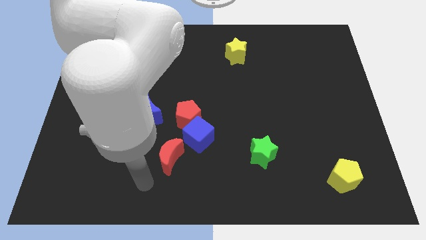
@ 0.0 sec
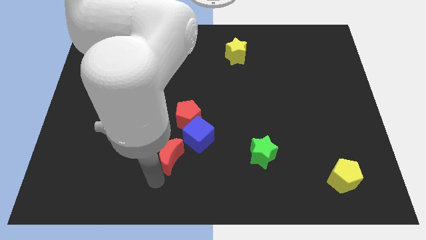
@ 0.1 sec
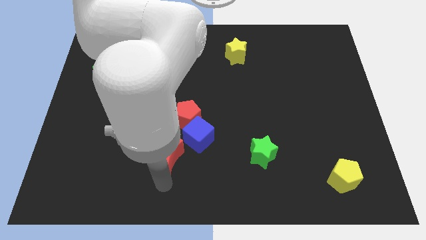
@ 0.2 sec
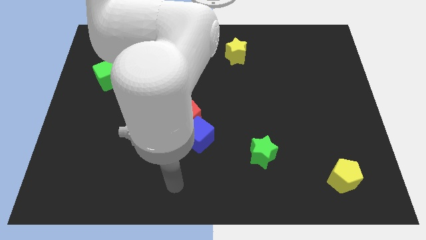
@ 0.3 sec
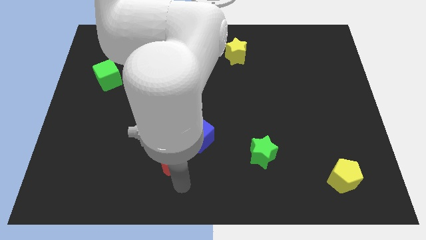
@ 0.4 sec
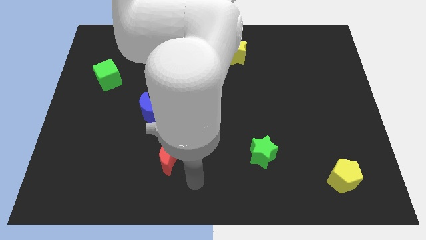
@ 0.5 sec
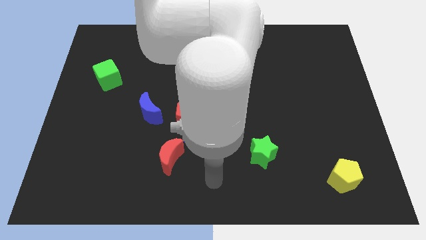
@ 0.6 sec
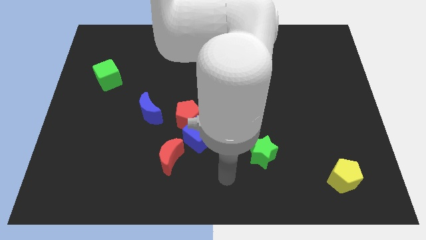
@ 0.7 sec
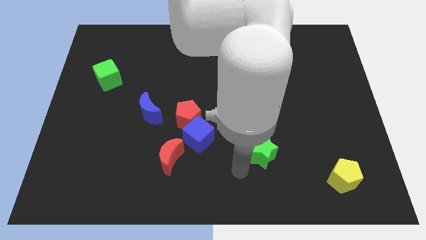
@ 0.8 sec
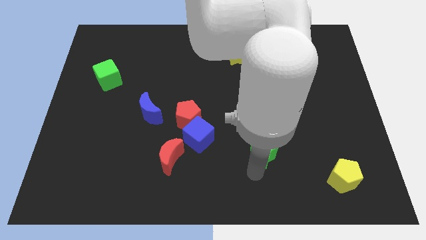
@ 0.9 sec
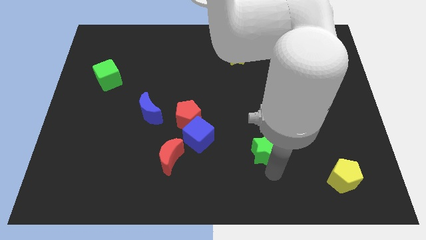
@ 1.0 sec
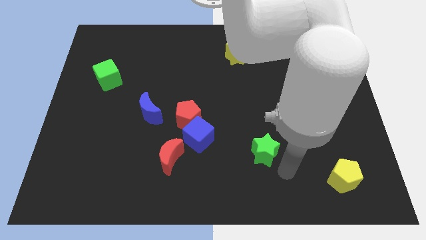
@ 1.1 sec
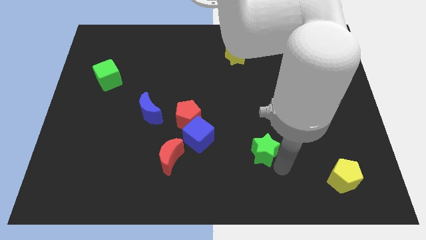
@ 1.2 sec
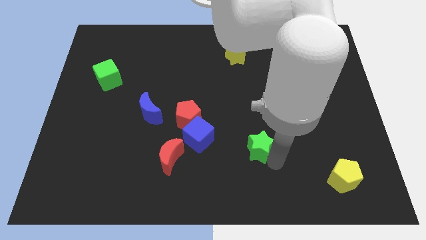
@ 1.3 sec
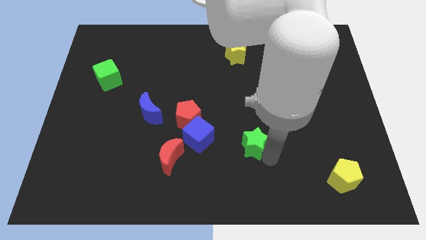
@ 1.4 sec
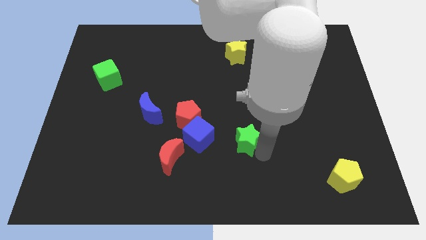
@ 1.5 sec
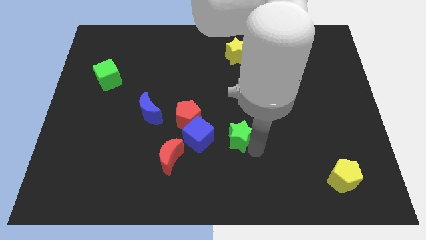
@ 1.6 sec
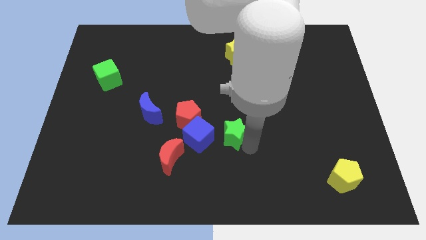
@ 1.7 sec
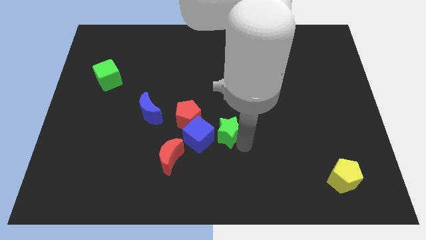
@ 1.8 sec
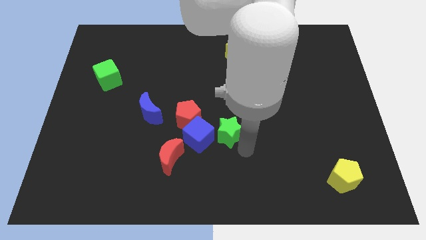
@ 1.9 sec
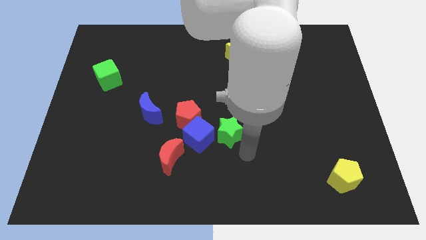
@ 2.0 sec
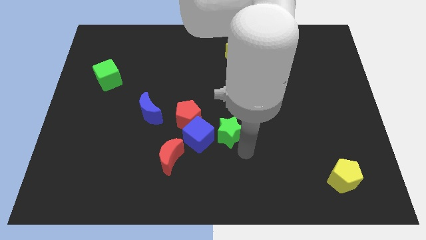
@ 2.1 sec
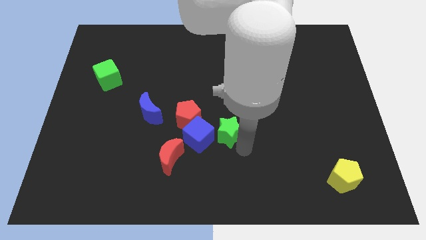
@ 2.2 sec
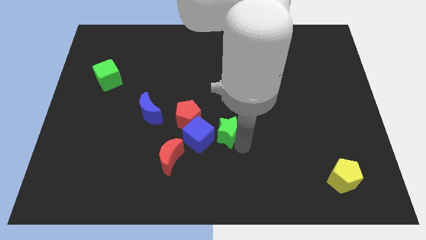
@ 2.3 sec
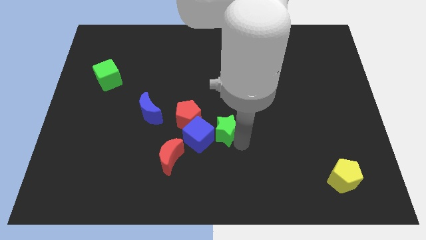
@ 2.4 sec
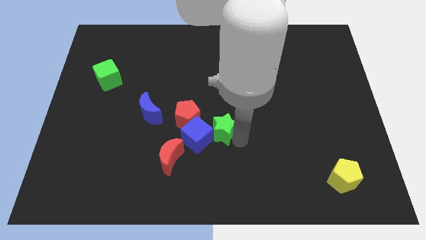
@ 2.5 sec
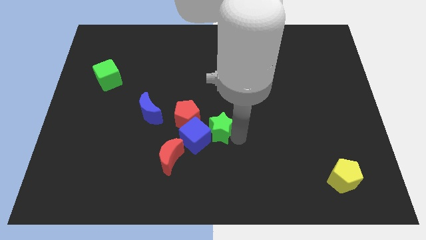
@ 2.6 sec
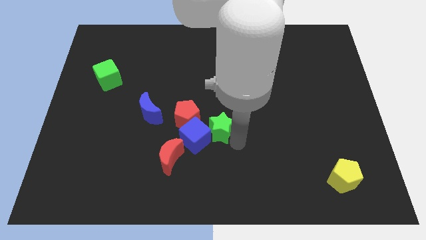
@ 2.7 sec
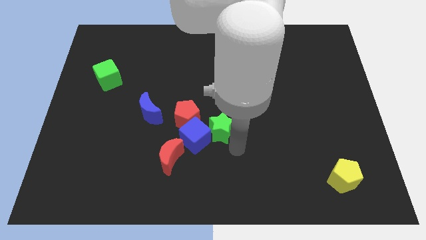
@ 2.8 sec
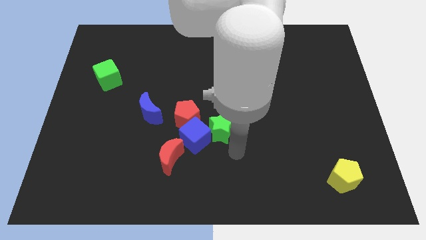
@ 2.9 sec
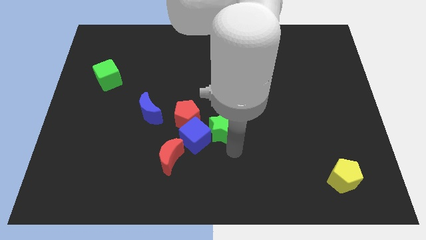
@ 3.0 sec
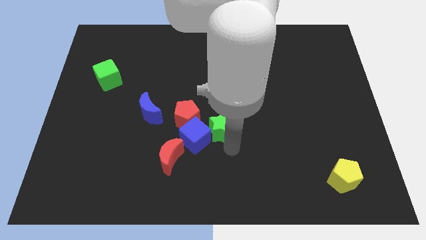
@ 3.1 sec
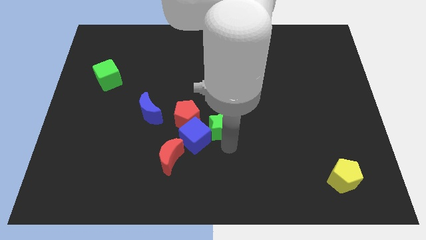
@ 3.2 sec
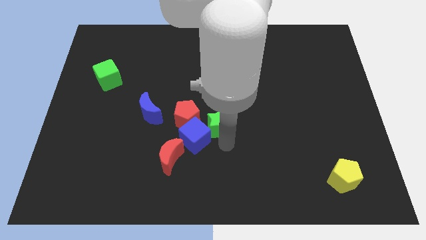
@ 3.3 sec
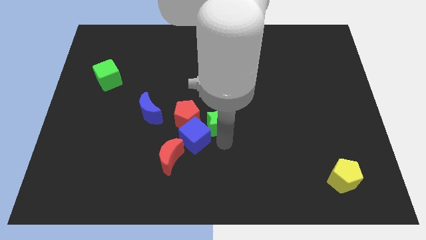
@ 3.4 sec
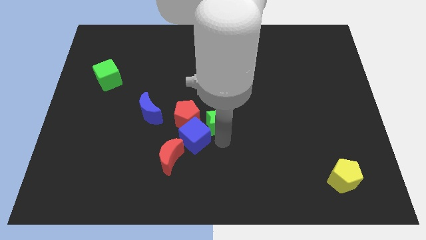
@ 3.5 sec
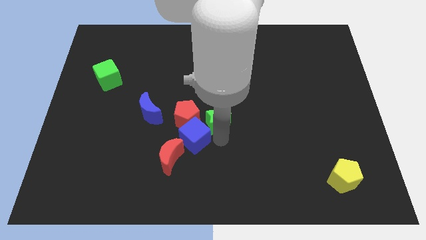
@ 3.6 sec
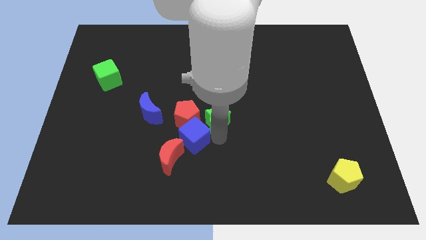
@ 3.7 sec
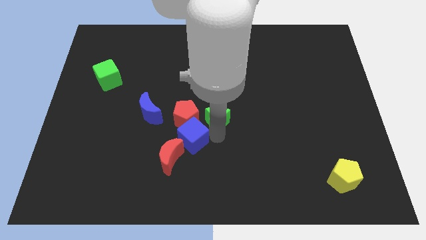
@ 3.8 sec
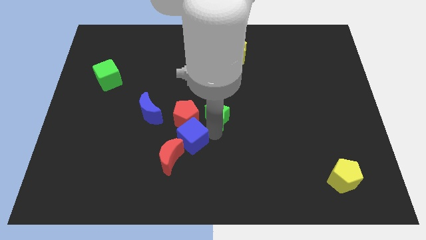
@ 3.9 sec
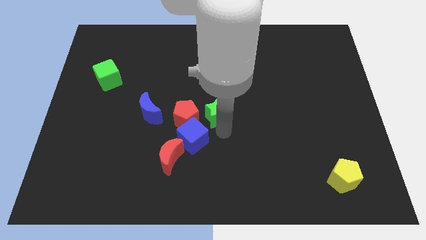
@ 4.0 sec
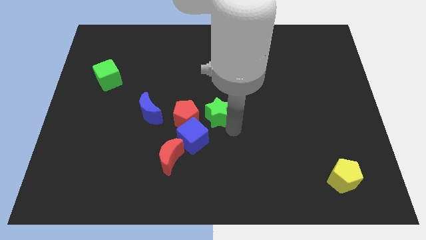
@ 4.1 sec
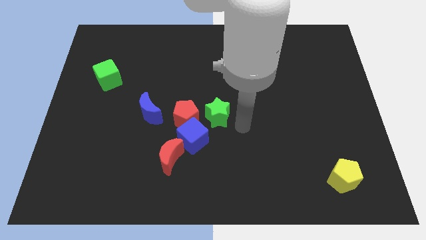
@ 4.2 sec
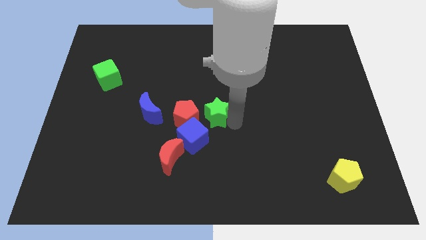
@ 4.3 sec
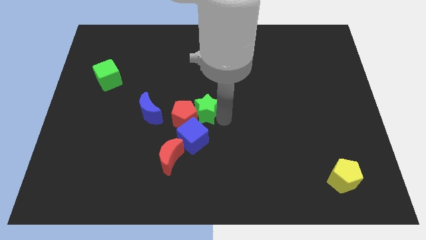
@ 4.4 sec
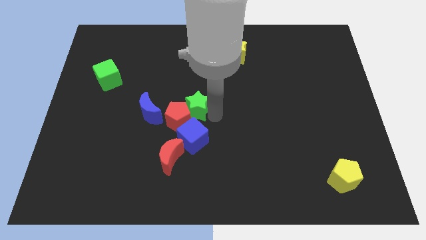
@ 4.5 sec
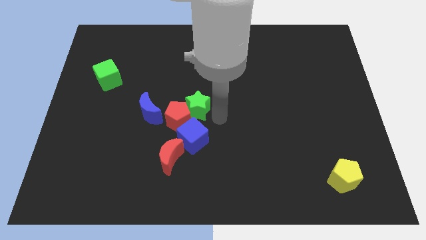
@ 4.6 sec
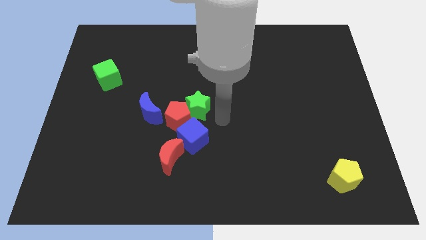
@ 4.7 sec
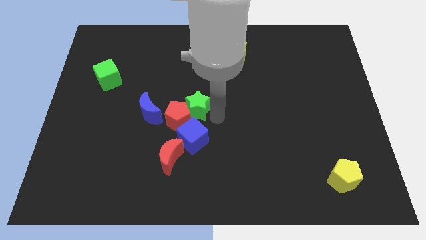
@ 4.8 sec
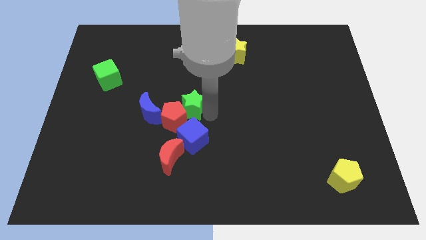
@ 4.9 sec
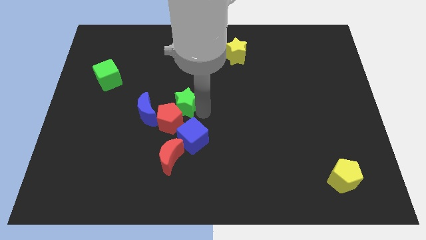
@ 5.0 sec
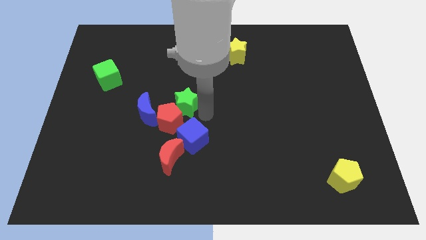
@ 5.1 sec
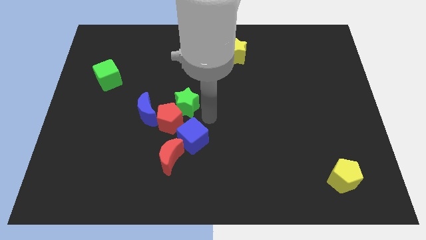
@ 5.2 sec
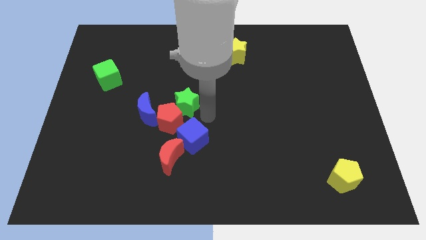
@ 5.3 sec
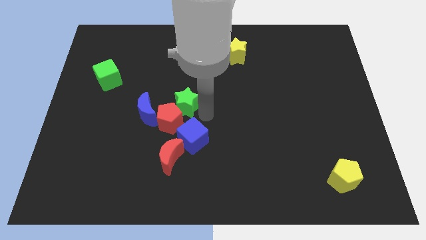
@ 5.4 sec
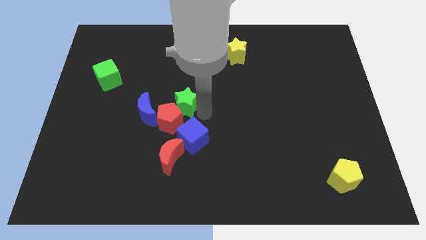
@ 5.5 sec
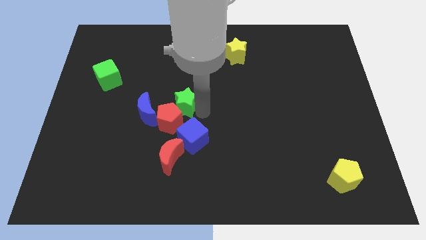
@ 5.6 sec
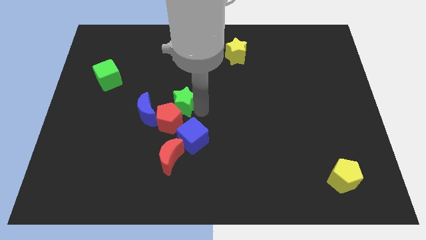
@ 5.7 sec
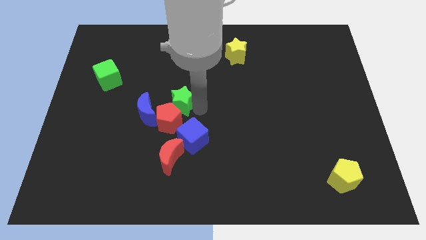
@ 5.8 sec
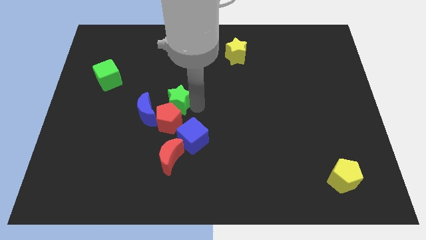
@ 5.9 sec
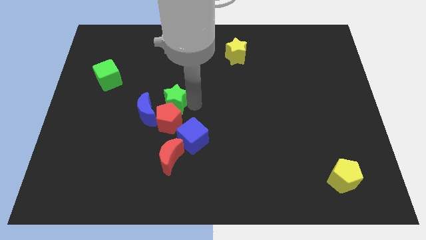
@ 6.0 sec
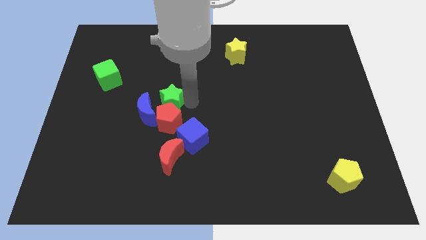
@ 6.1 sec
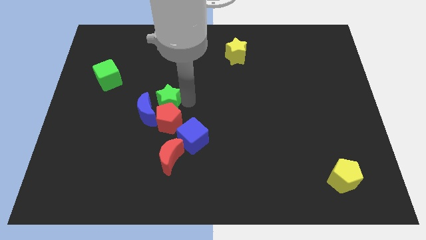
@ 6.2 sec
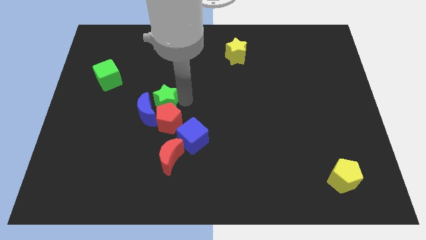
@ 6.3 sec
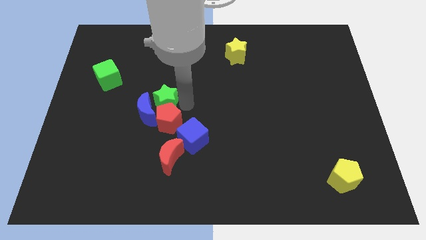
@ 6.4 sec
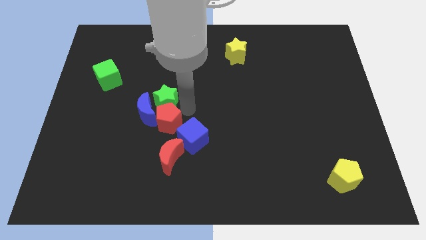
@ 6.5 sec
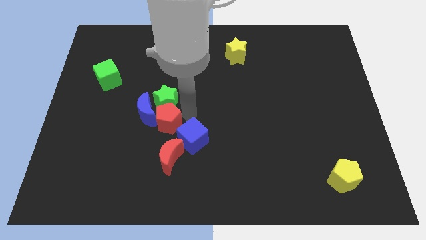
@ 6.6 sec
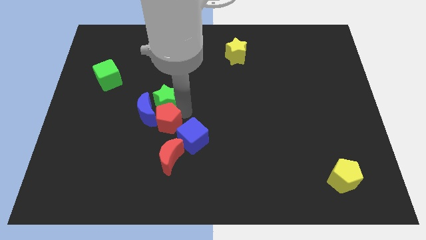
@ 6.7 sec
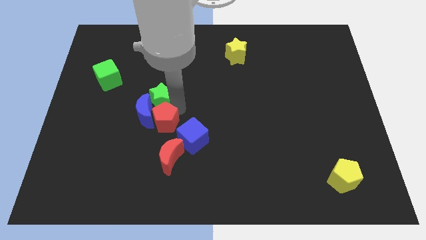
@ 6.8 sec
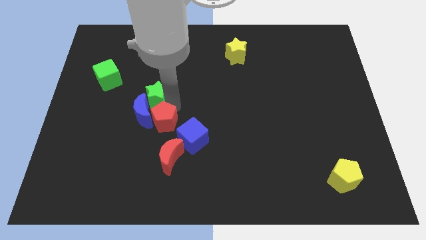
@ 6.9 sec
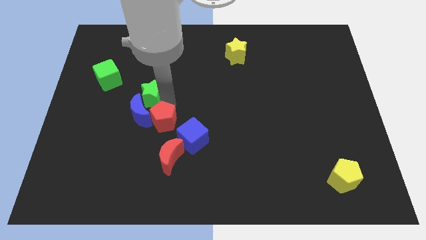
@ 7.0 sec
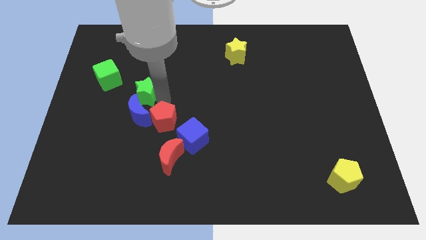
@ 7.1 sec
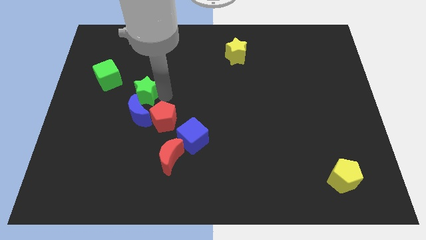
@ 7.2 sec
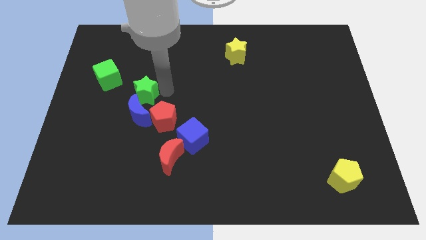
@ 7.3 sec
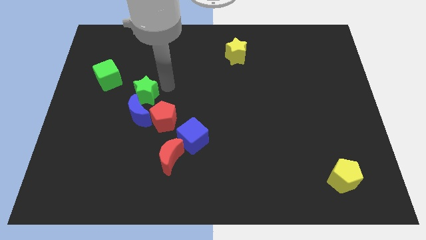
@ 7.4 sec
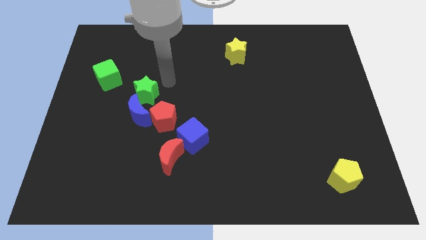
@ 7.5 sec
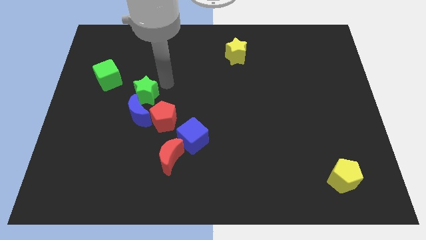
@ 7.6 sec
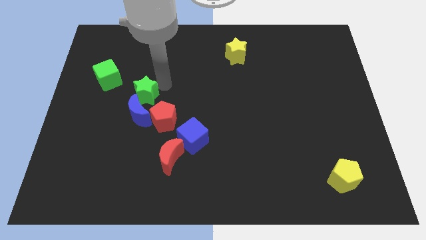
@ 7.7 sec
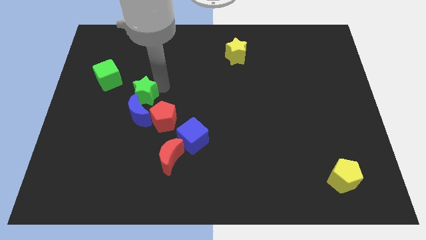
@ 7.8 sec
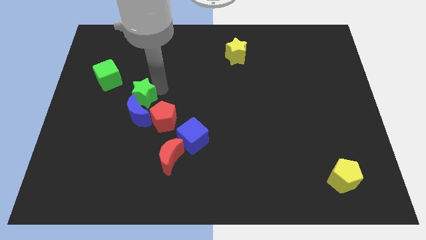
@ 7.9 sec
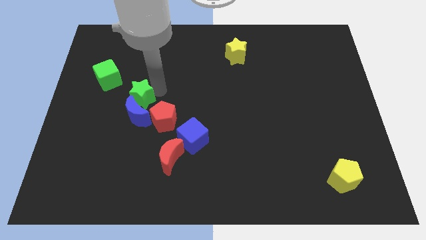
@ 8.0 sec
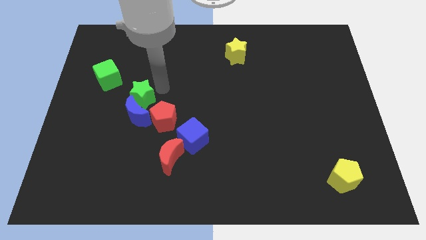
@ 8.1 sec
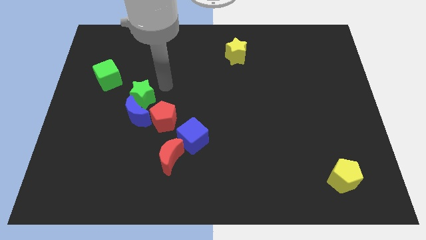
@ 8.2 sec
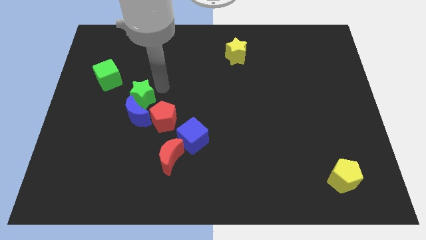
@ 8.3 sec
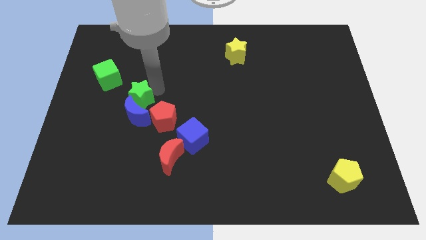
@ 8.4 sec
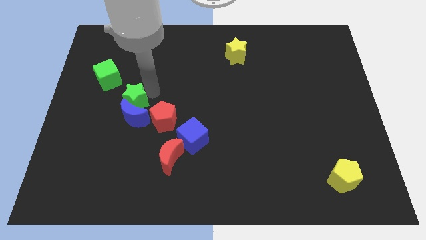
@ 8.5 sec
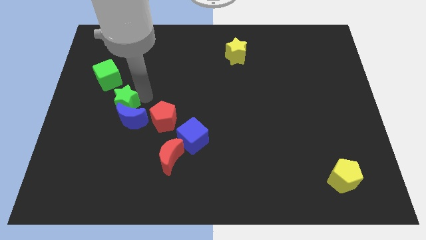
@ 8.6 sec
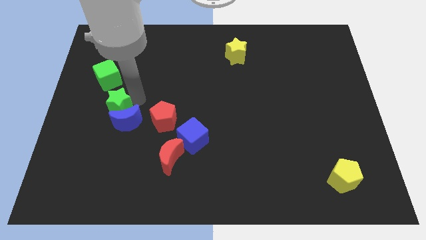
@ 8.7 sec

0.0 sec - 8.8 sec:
put the green star below the green cube
